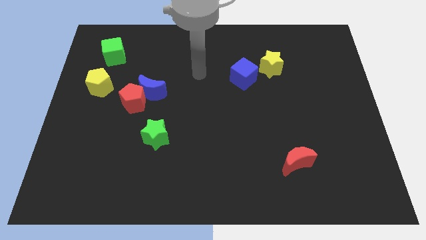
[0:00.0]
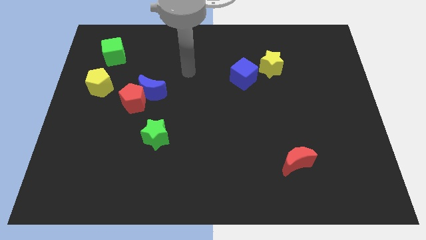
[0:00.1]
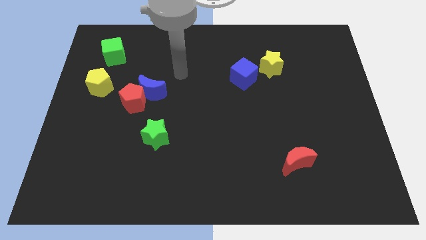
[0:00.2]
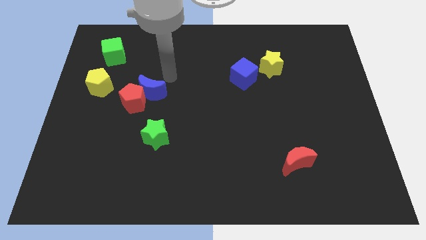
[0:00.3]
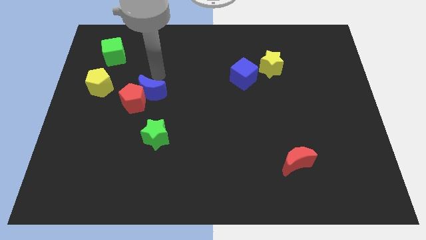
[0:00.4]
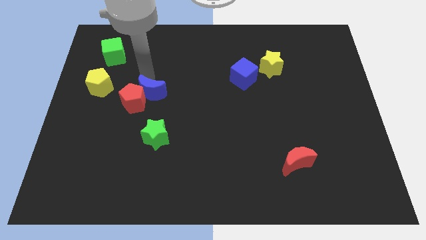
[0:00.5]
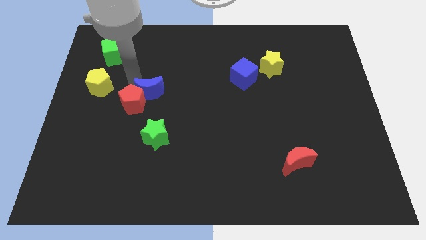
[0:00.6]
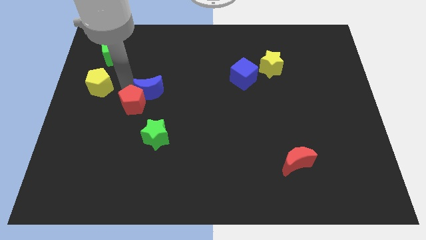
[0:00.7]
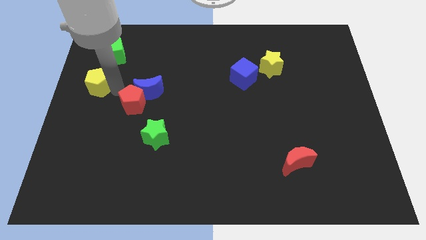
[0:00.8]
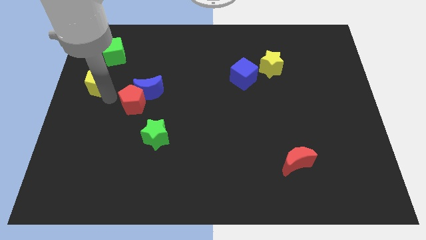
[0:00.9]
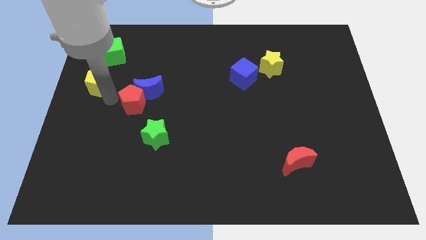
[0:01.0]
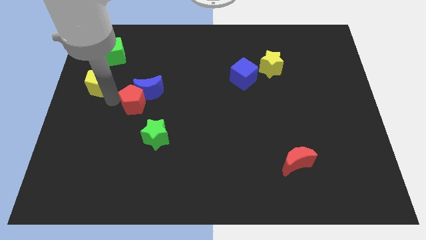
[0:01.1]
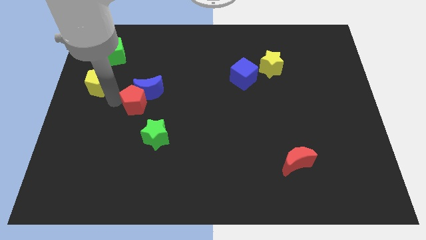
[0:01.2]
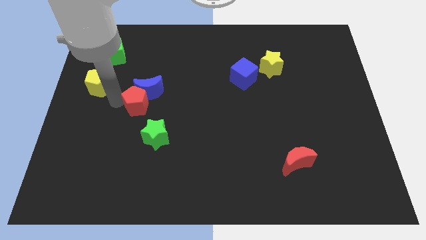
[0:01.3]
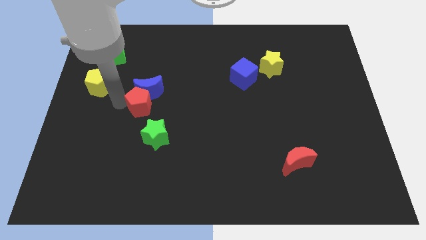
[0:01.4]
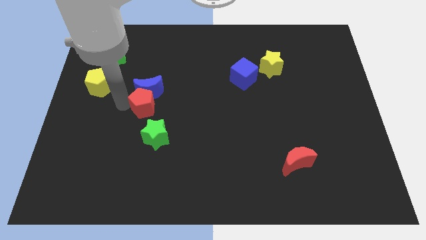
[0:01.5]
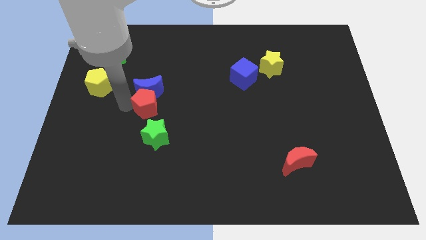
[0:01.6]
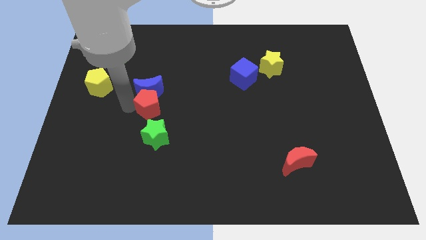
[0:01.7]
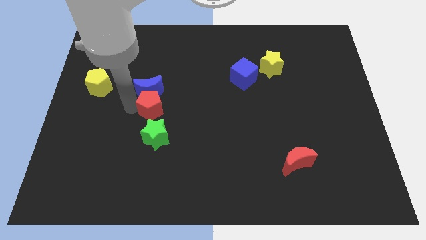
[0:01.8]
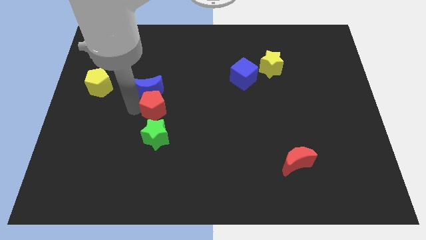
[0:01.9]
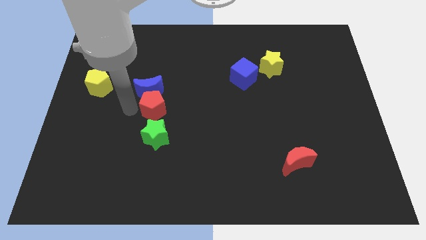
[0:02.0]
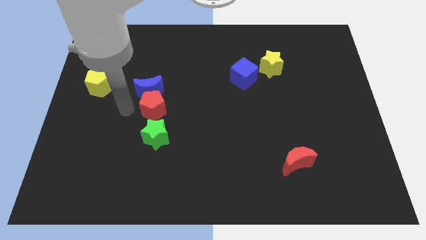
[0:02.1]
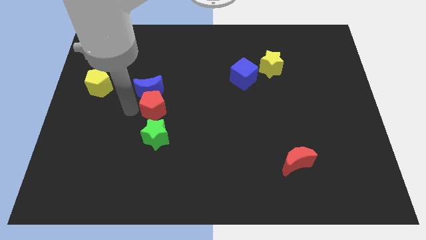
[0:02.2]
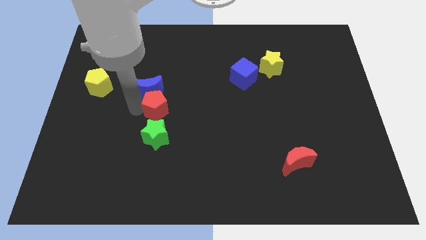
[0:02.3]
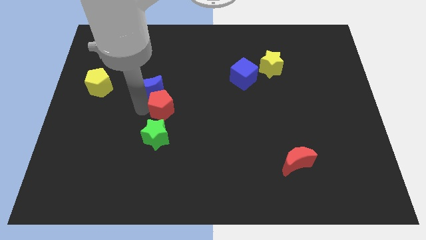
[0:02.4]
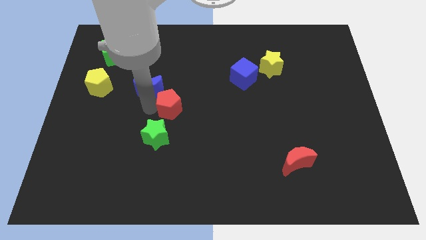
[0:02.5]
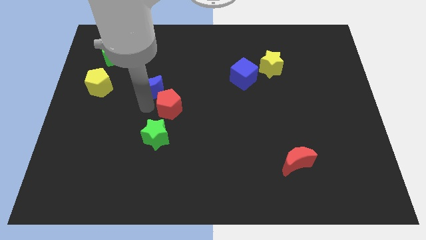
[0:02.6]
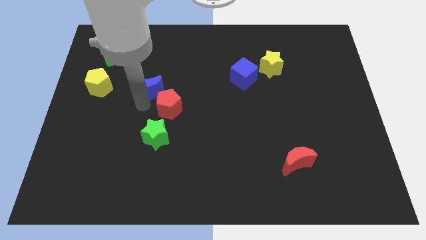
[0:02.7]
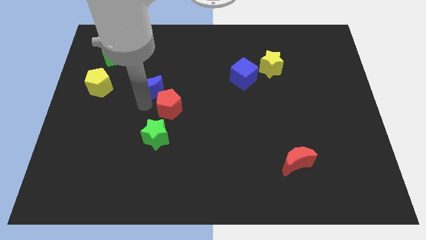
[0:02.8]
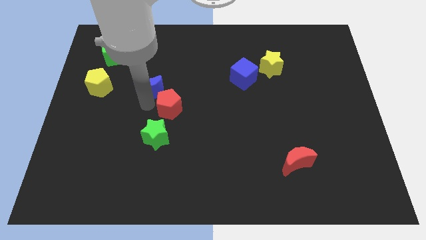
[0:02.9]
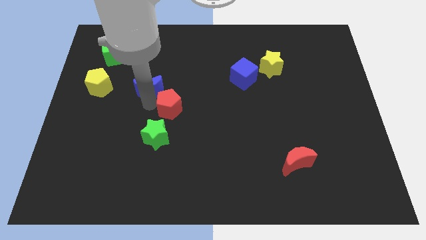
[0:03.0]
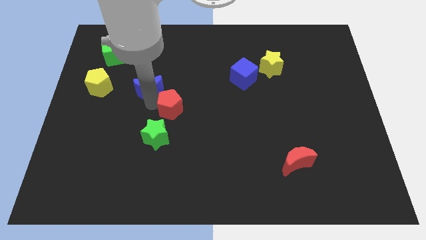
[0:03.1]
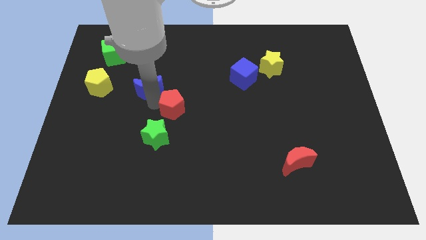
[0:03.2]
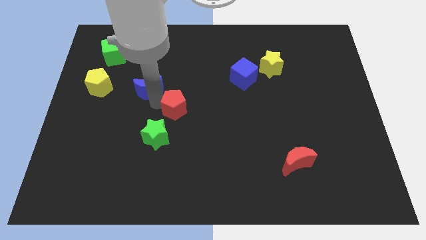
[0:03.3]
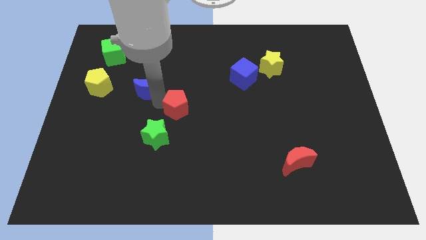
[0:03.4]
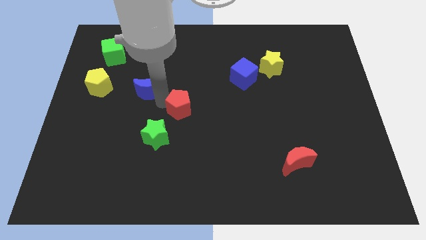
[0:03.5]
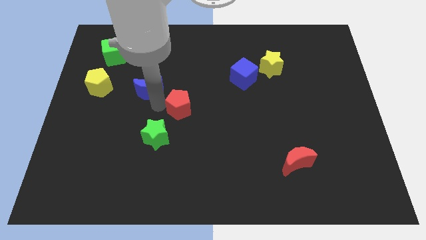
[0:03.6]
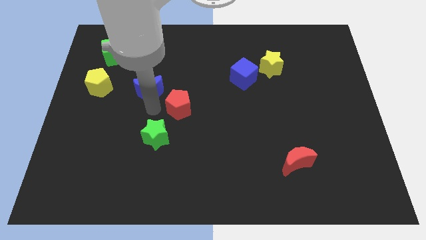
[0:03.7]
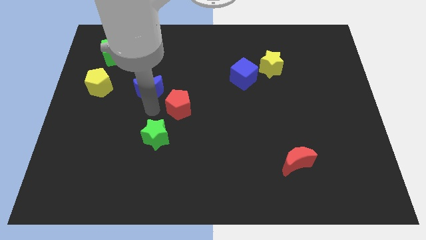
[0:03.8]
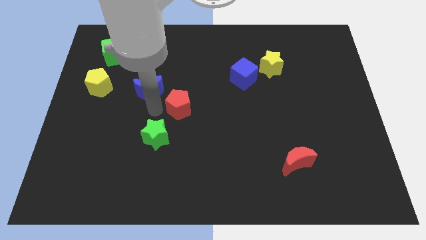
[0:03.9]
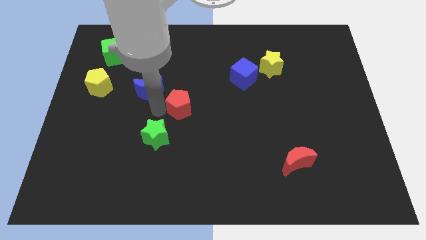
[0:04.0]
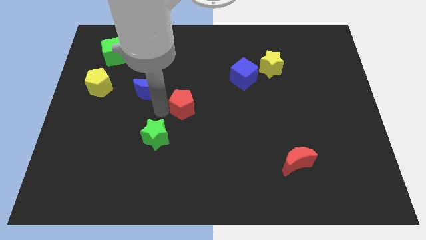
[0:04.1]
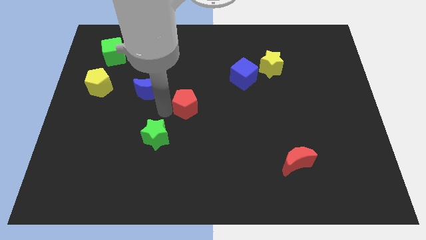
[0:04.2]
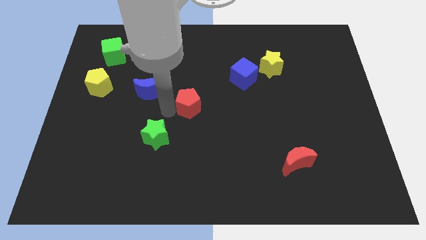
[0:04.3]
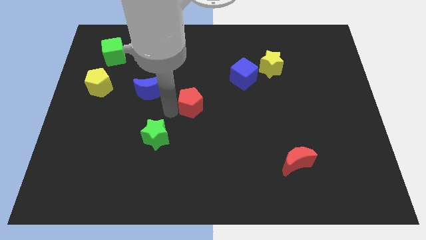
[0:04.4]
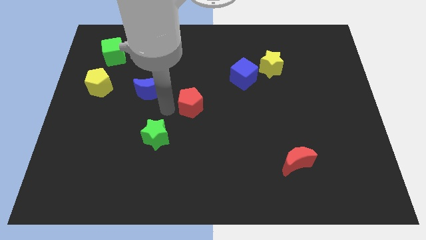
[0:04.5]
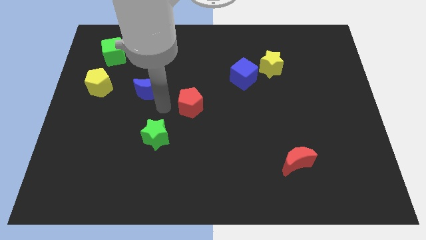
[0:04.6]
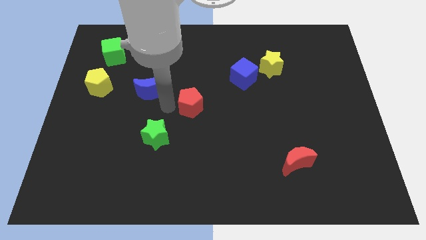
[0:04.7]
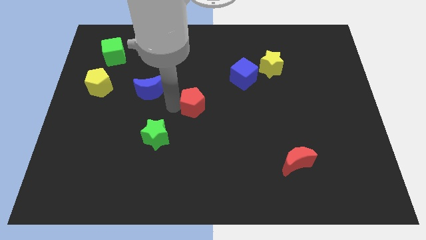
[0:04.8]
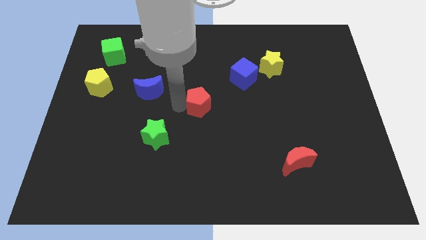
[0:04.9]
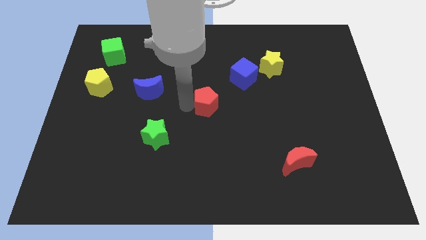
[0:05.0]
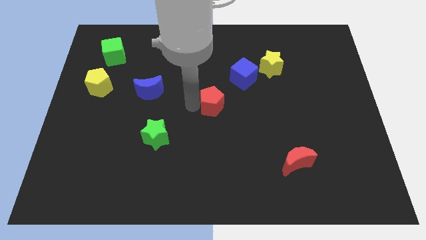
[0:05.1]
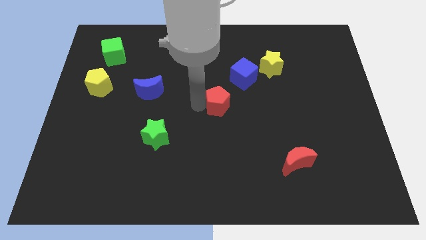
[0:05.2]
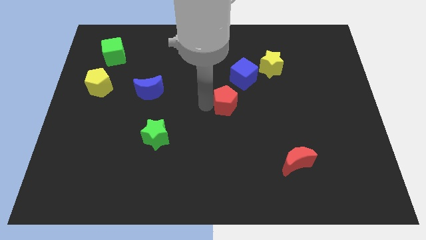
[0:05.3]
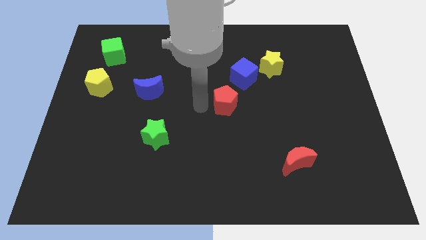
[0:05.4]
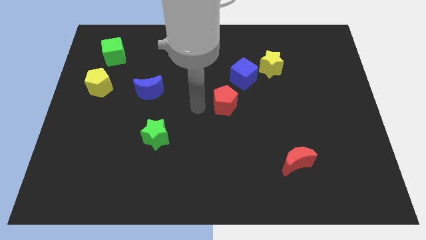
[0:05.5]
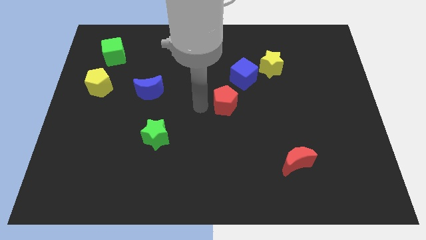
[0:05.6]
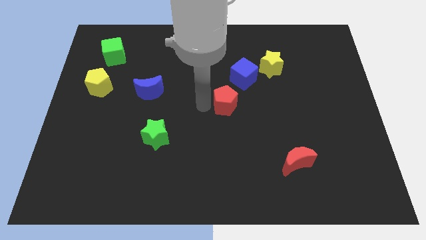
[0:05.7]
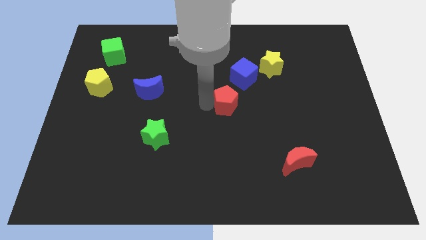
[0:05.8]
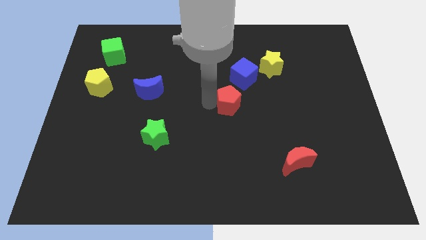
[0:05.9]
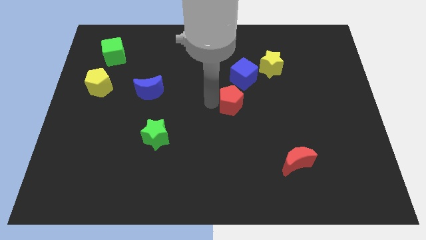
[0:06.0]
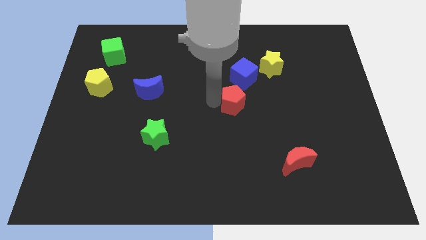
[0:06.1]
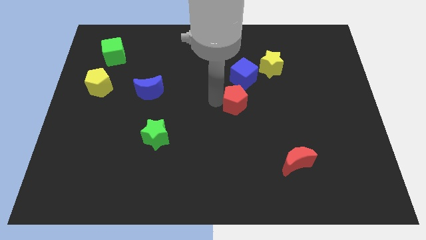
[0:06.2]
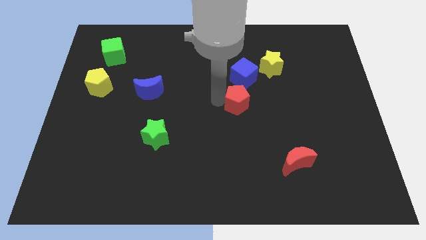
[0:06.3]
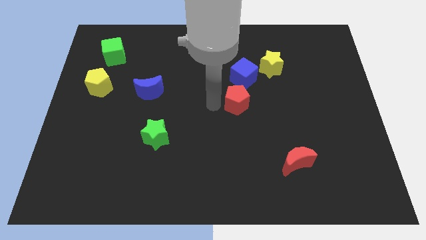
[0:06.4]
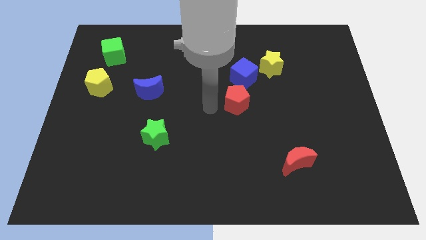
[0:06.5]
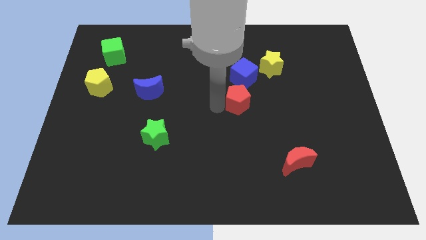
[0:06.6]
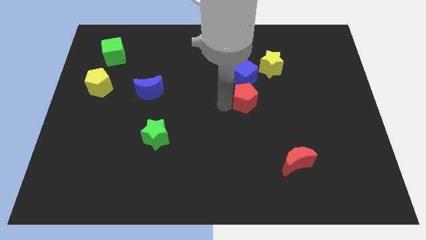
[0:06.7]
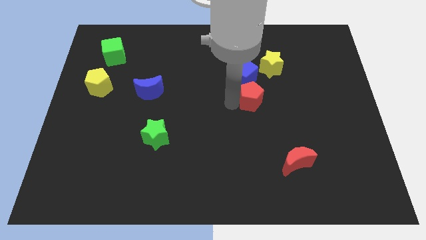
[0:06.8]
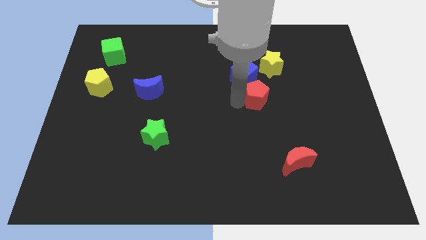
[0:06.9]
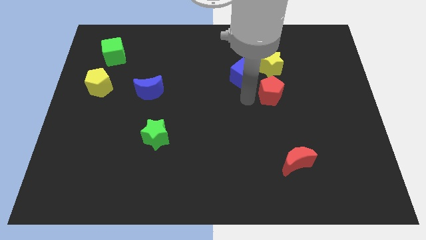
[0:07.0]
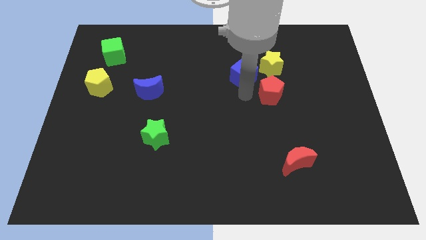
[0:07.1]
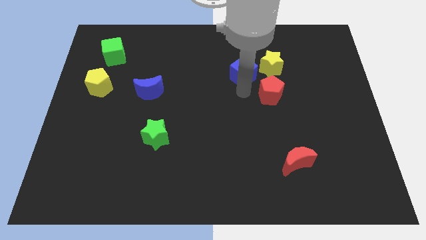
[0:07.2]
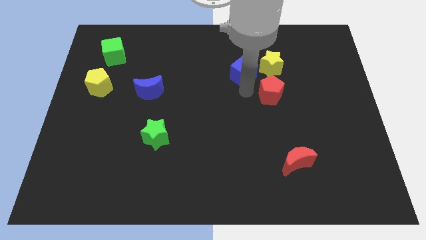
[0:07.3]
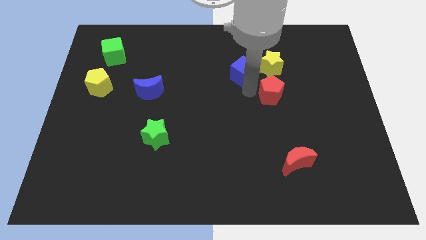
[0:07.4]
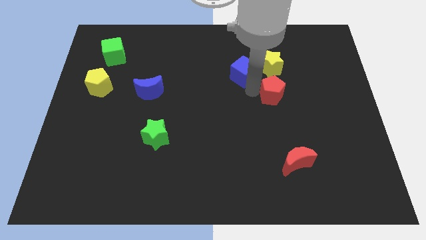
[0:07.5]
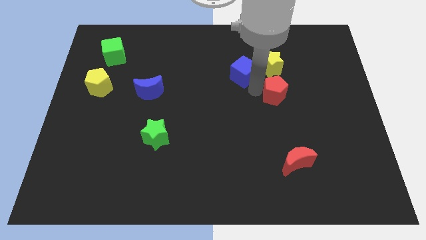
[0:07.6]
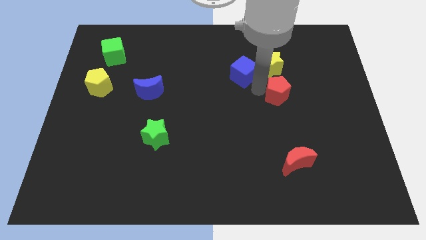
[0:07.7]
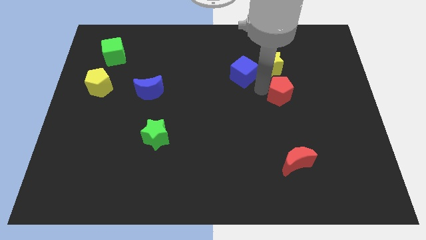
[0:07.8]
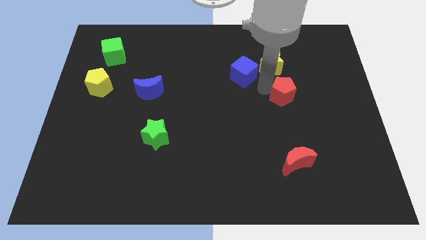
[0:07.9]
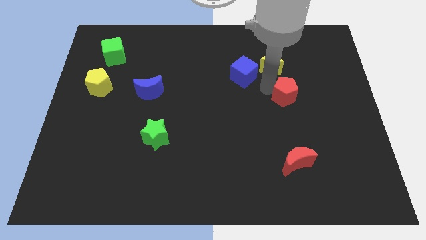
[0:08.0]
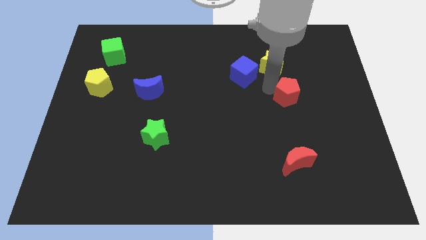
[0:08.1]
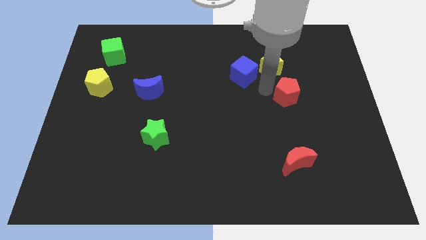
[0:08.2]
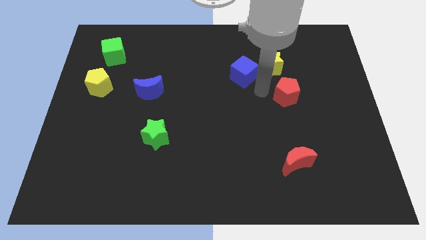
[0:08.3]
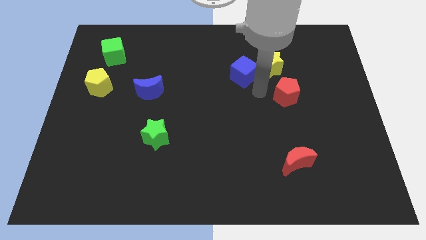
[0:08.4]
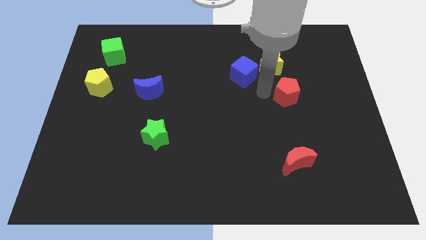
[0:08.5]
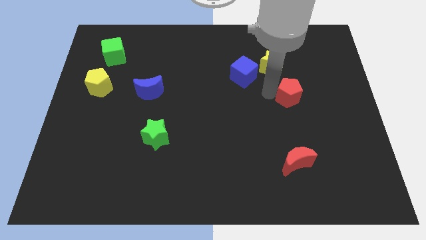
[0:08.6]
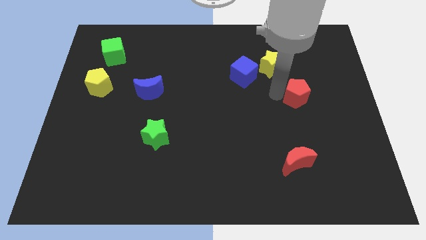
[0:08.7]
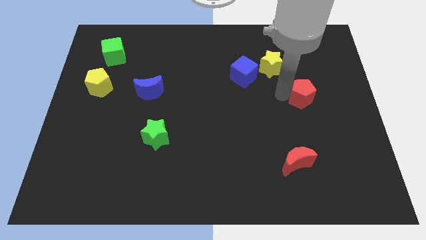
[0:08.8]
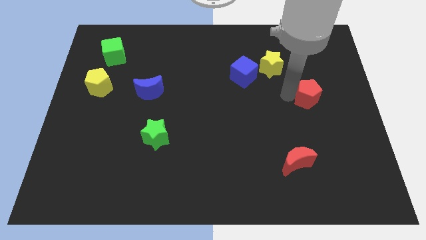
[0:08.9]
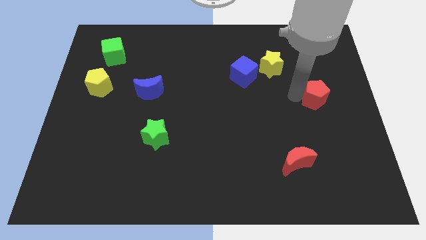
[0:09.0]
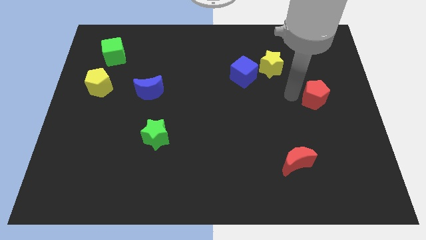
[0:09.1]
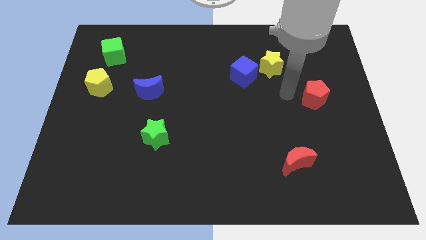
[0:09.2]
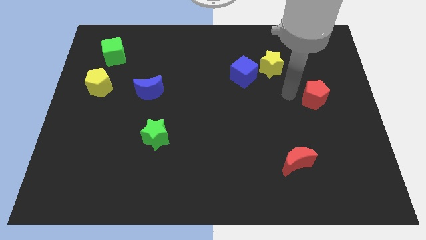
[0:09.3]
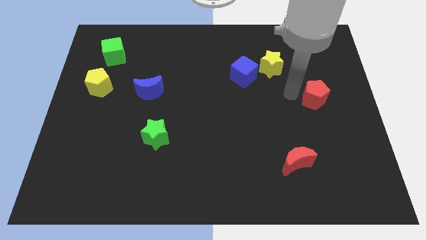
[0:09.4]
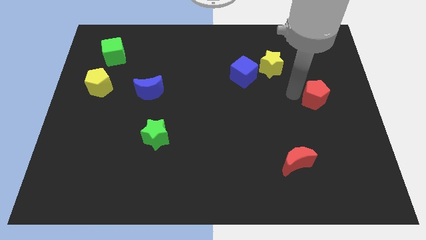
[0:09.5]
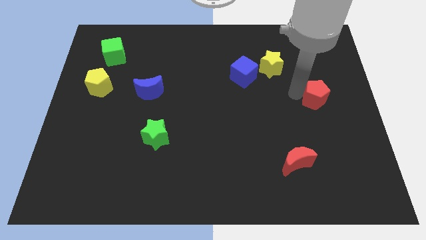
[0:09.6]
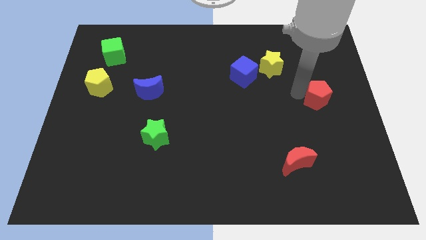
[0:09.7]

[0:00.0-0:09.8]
put the red pentagon to the right side
